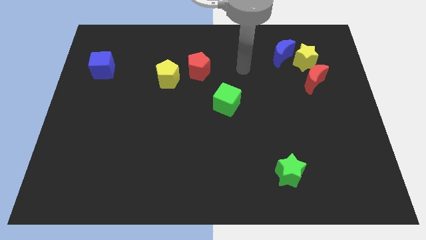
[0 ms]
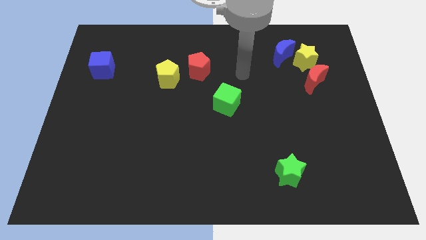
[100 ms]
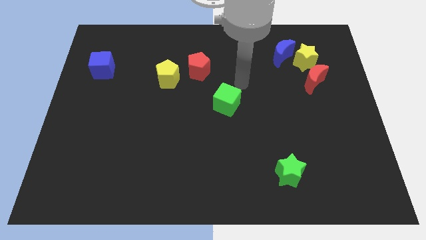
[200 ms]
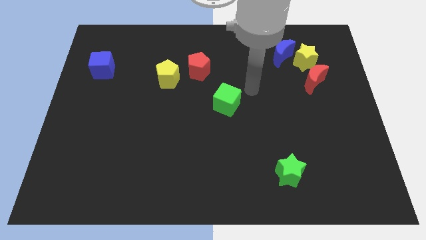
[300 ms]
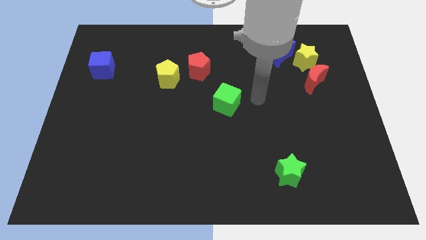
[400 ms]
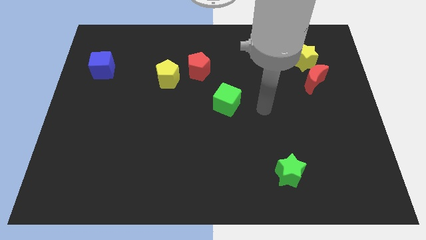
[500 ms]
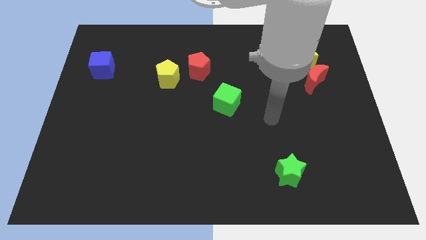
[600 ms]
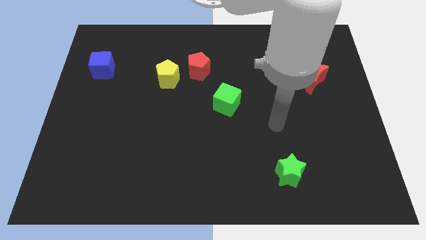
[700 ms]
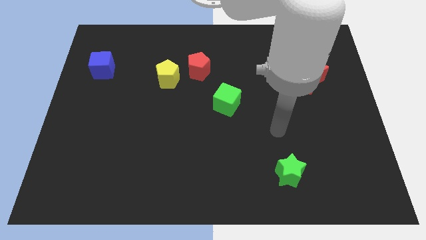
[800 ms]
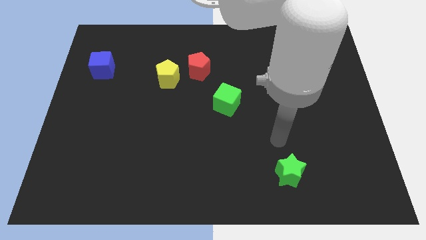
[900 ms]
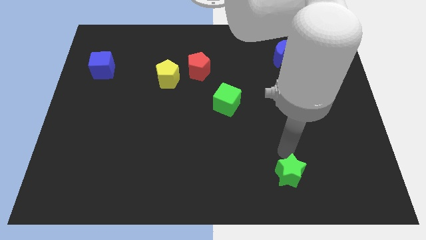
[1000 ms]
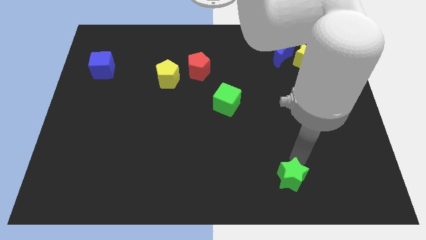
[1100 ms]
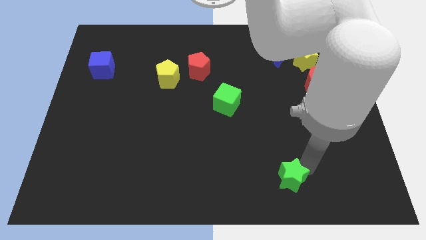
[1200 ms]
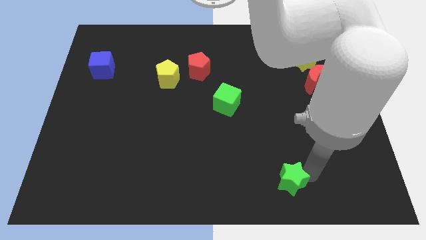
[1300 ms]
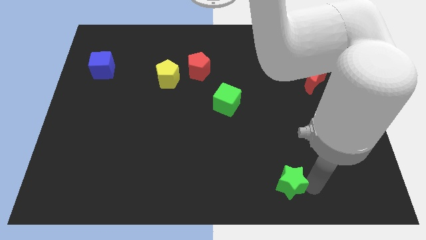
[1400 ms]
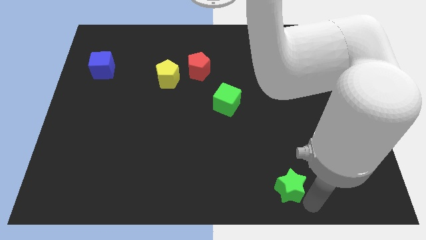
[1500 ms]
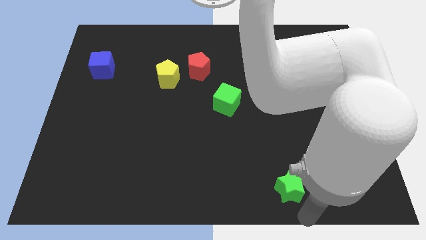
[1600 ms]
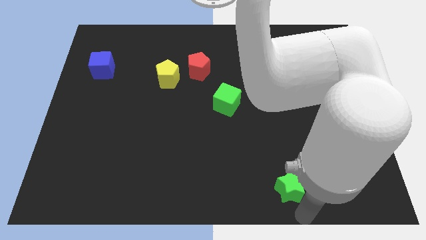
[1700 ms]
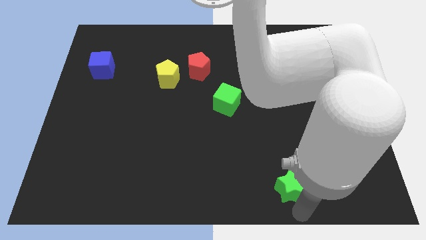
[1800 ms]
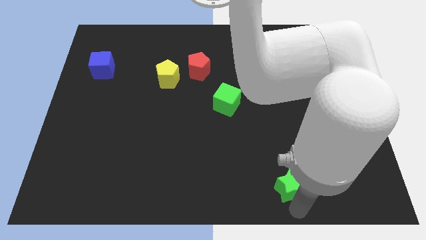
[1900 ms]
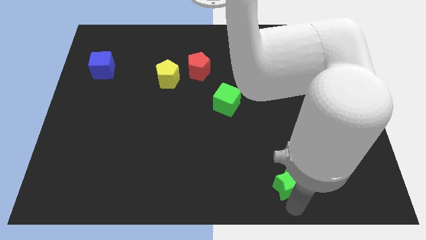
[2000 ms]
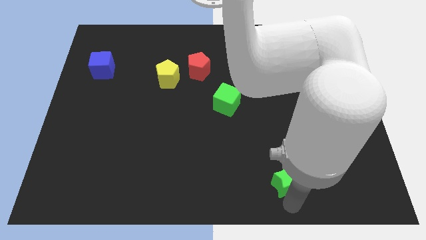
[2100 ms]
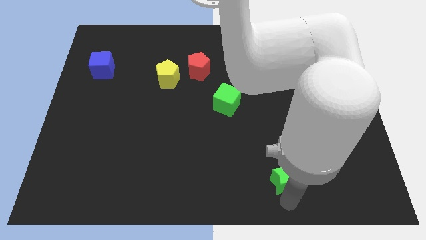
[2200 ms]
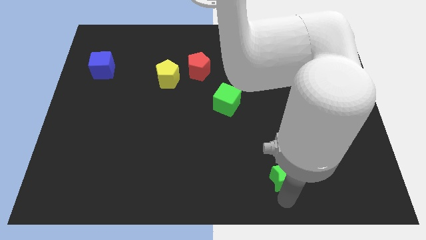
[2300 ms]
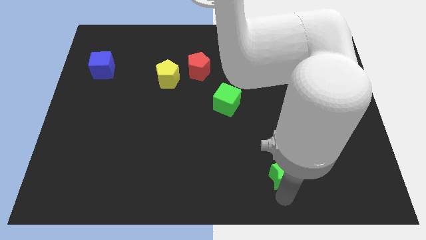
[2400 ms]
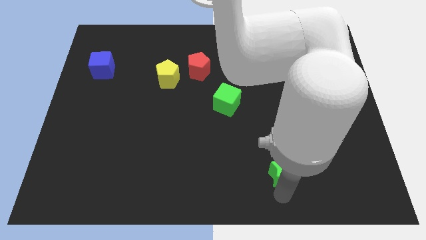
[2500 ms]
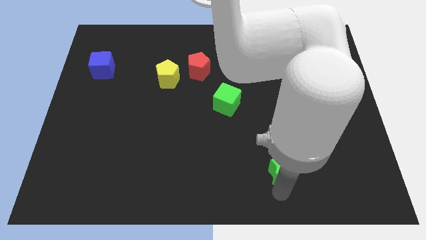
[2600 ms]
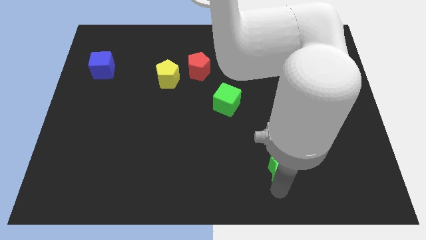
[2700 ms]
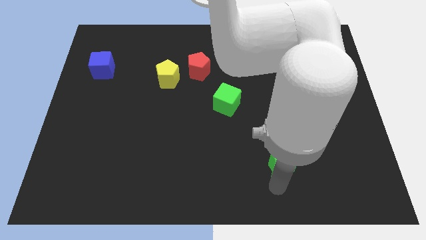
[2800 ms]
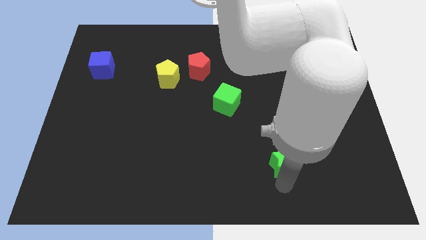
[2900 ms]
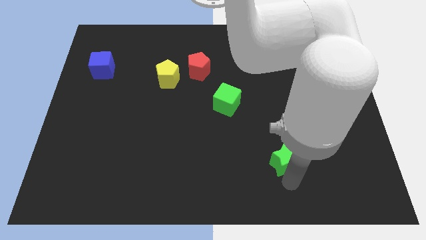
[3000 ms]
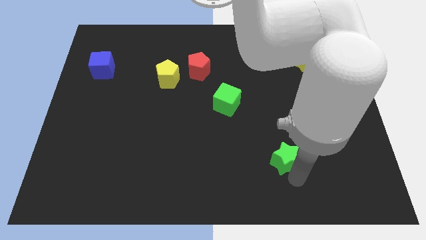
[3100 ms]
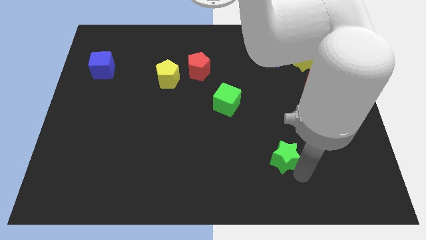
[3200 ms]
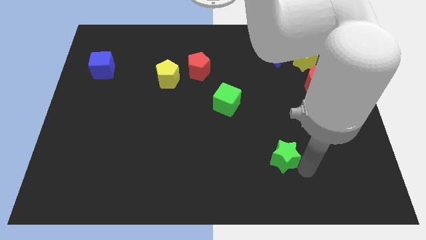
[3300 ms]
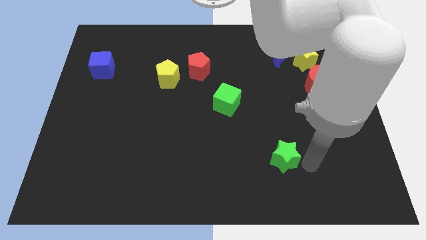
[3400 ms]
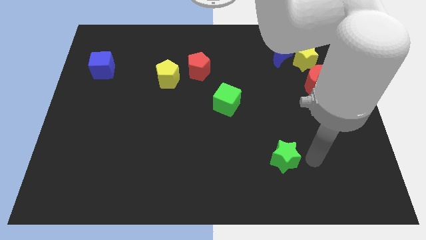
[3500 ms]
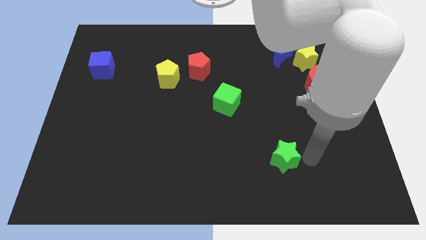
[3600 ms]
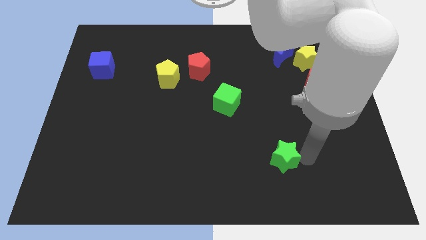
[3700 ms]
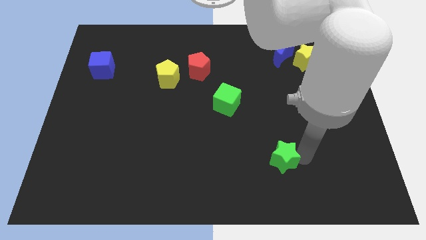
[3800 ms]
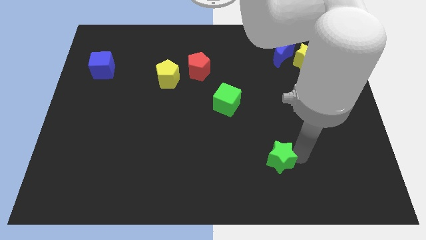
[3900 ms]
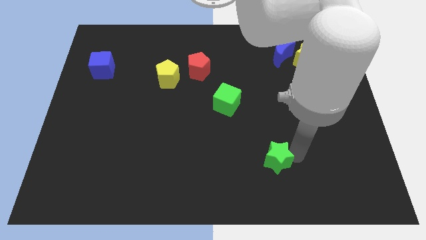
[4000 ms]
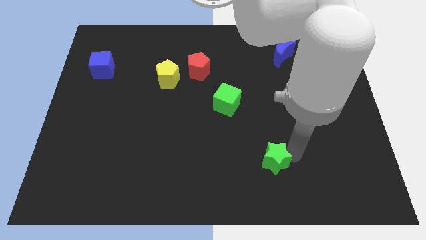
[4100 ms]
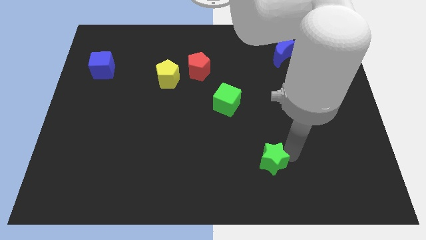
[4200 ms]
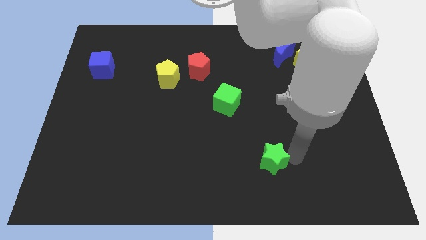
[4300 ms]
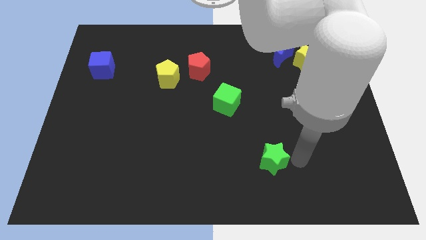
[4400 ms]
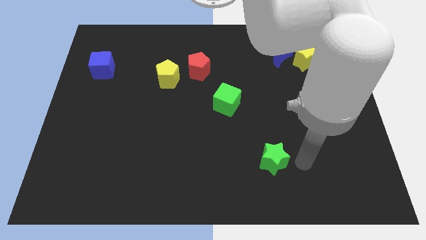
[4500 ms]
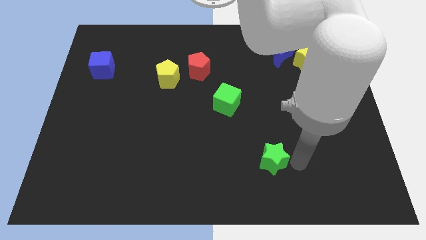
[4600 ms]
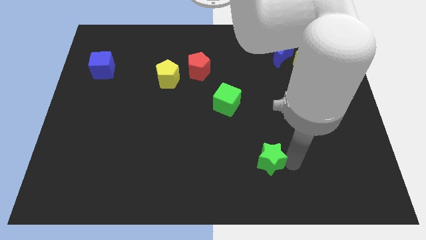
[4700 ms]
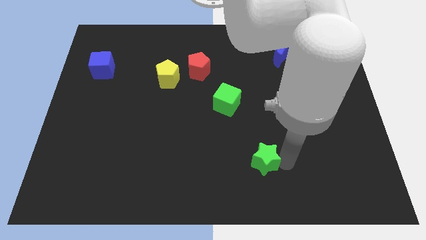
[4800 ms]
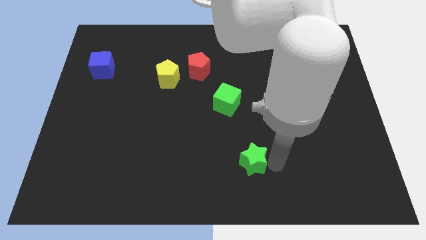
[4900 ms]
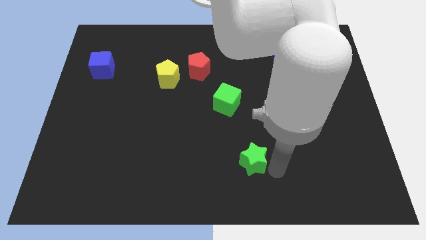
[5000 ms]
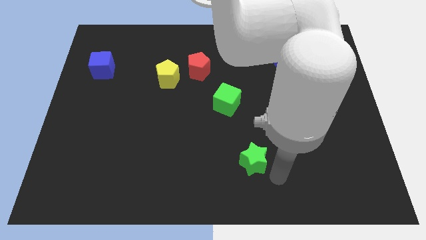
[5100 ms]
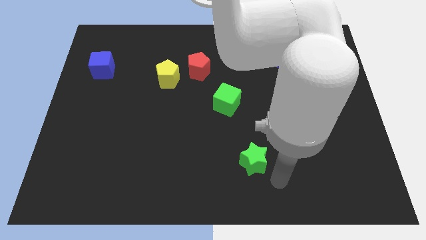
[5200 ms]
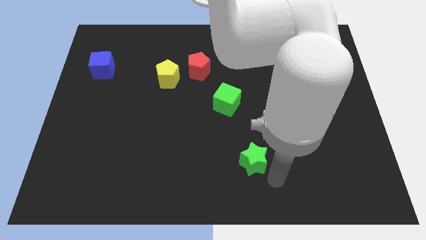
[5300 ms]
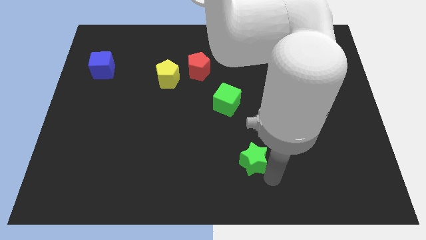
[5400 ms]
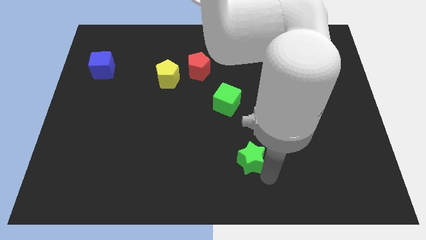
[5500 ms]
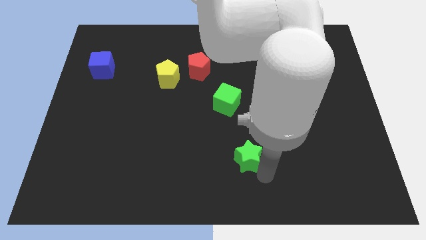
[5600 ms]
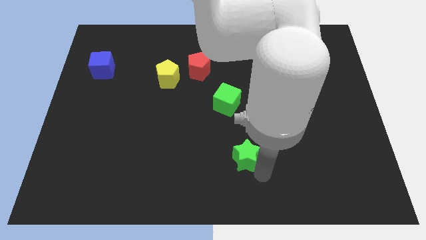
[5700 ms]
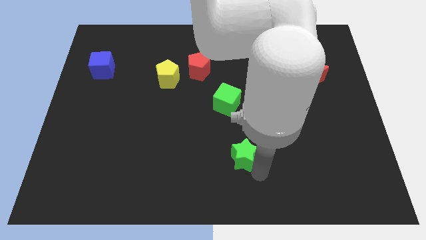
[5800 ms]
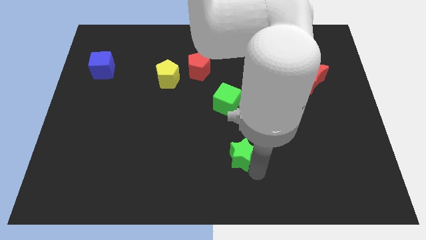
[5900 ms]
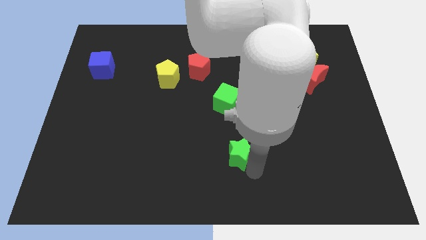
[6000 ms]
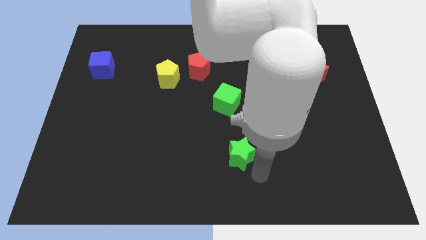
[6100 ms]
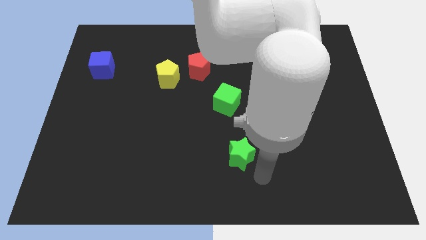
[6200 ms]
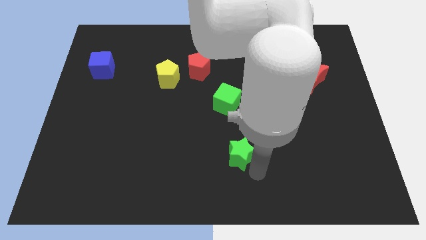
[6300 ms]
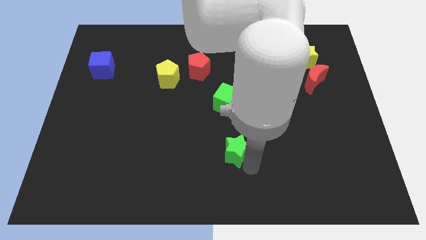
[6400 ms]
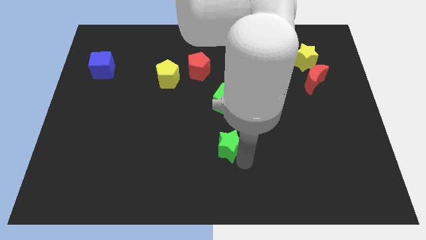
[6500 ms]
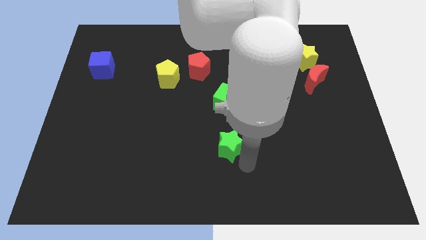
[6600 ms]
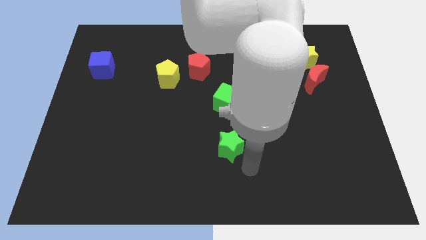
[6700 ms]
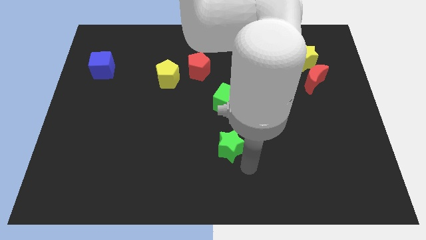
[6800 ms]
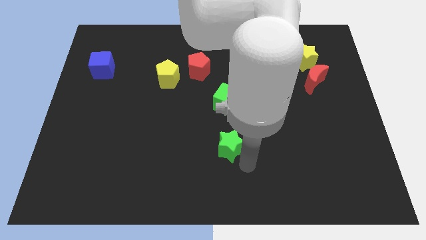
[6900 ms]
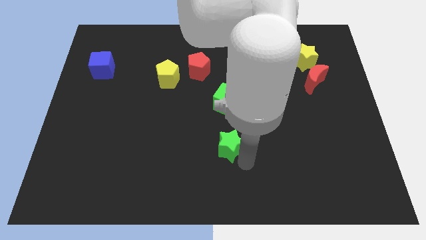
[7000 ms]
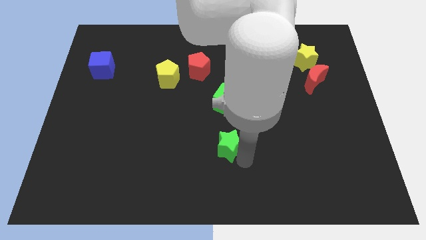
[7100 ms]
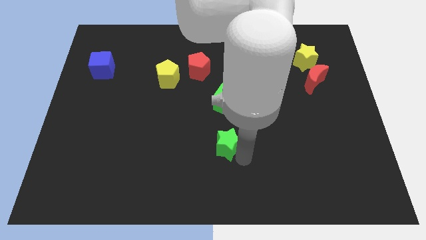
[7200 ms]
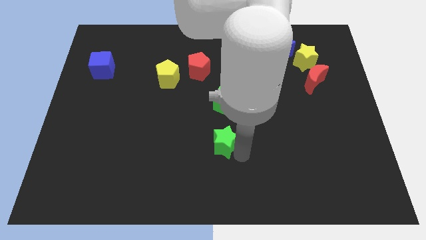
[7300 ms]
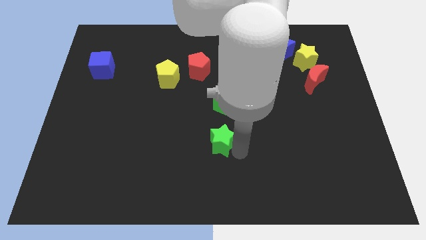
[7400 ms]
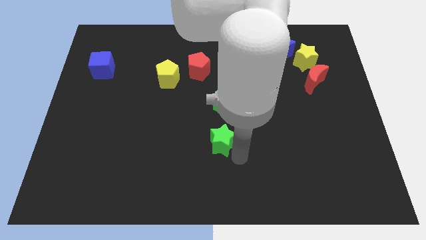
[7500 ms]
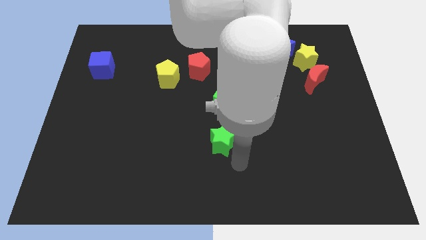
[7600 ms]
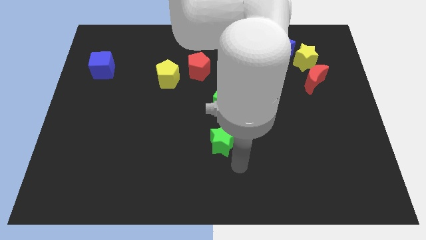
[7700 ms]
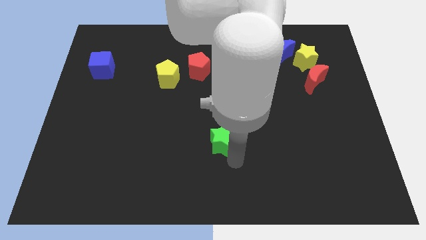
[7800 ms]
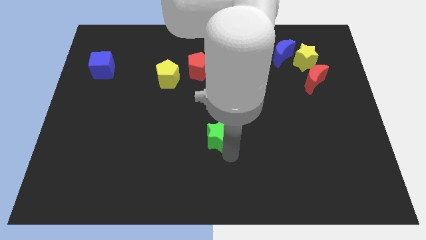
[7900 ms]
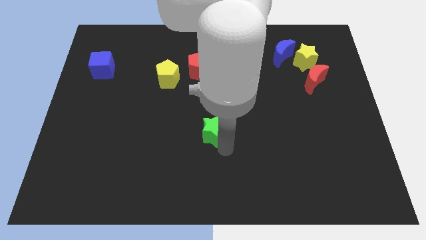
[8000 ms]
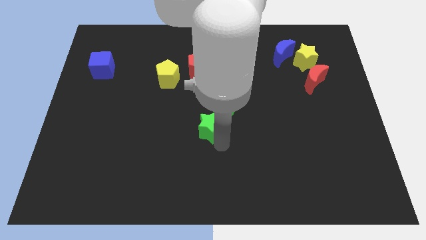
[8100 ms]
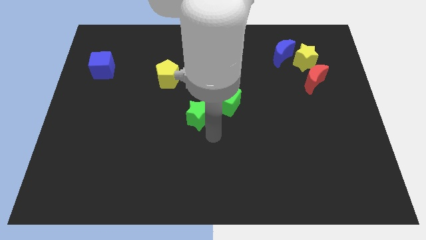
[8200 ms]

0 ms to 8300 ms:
move the green star diagonally up and to the left

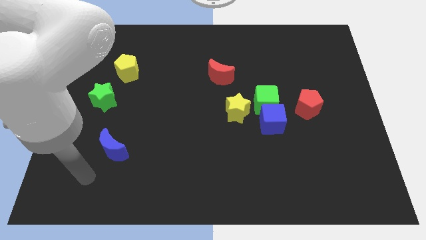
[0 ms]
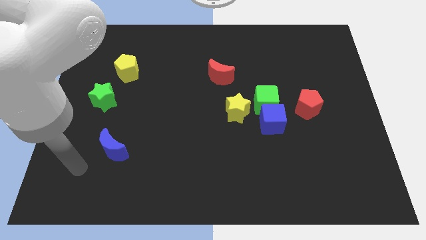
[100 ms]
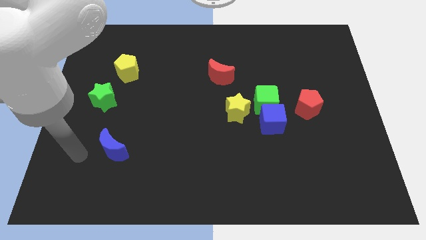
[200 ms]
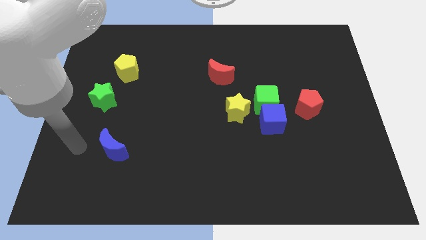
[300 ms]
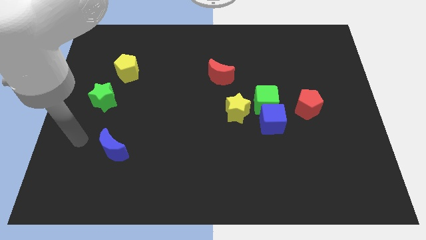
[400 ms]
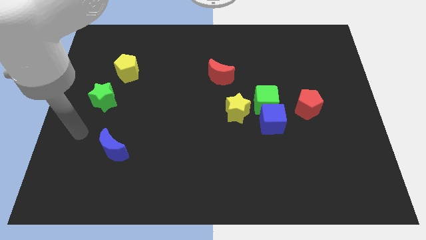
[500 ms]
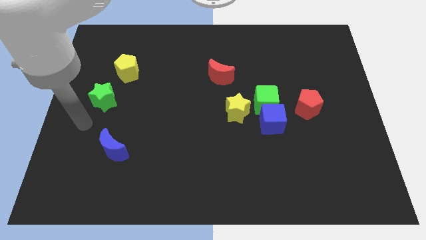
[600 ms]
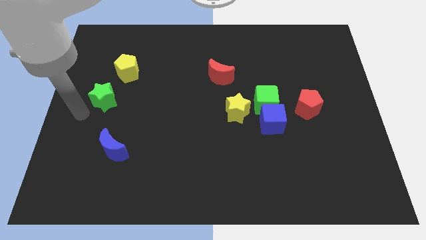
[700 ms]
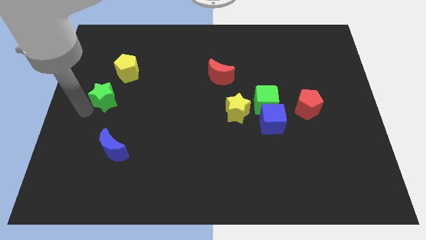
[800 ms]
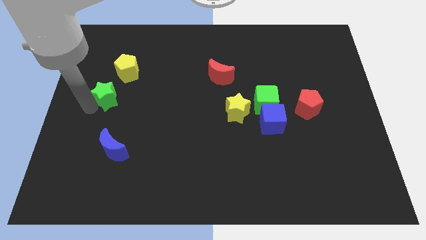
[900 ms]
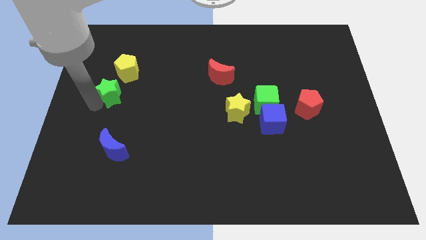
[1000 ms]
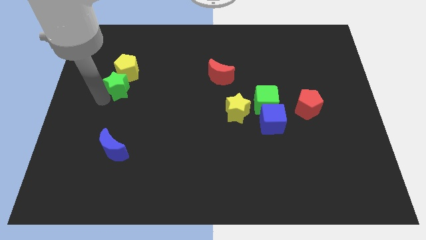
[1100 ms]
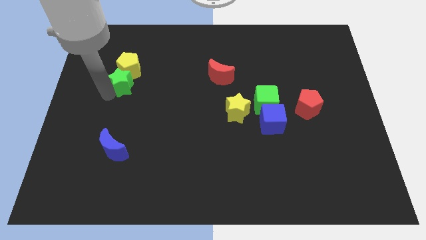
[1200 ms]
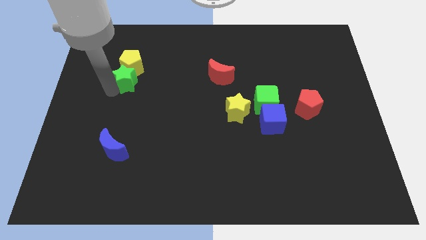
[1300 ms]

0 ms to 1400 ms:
slightly slide the green star upwards and right
